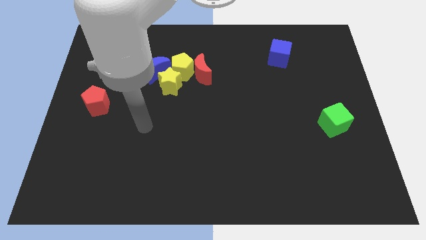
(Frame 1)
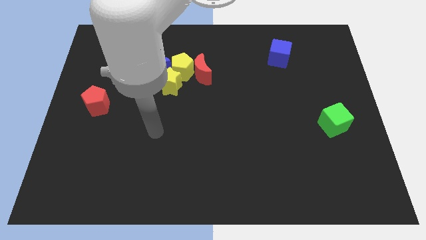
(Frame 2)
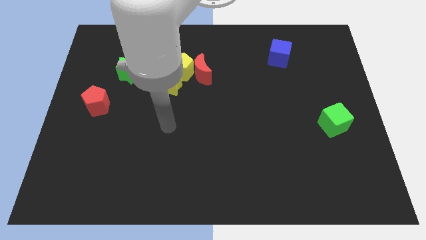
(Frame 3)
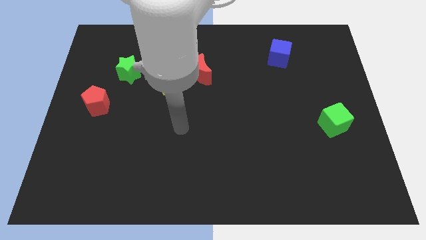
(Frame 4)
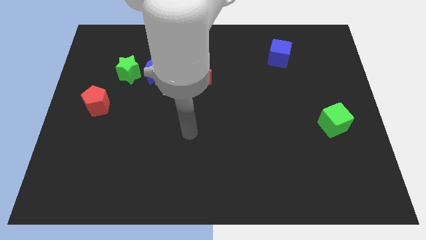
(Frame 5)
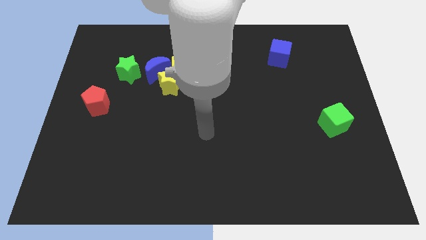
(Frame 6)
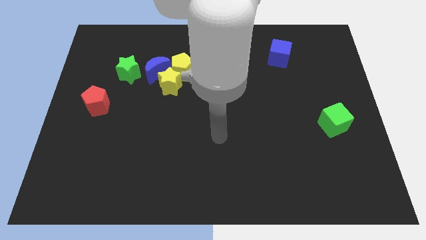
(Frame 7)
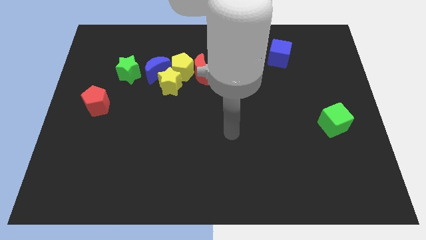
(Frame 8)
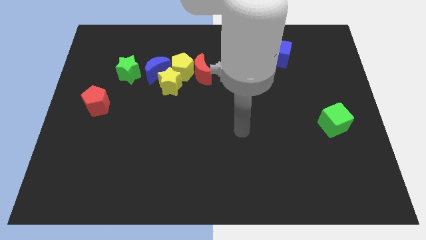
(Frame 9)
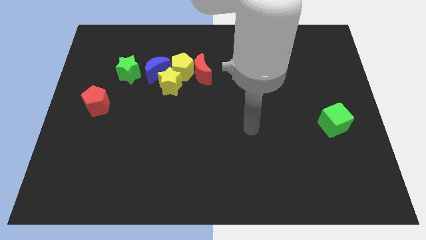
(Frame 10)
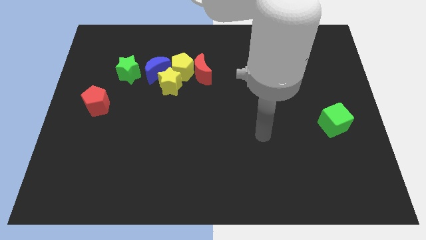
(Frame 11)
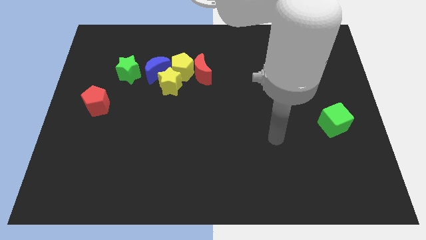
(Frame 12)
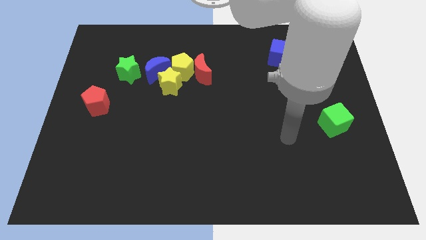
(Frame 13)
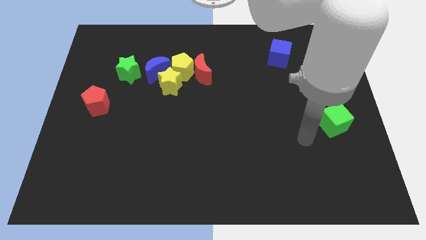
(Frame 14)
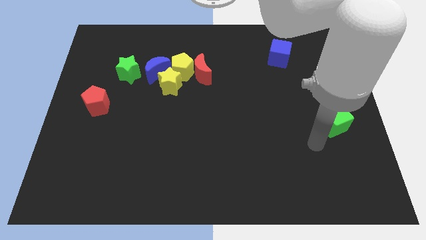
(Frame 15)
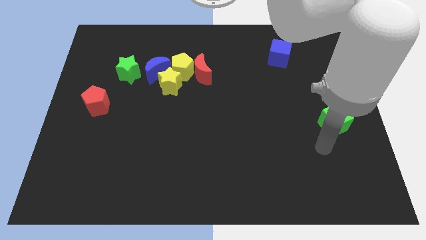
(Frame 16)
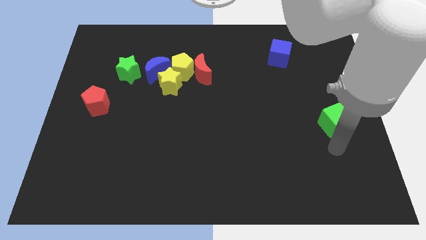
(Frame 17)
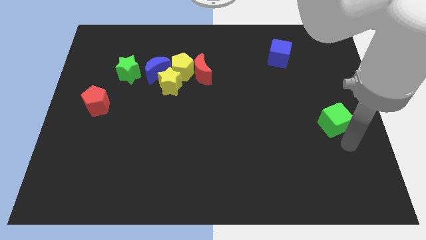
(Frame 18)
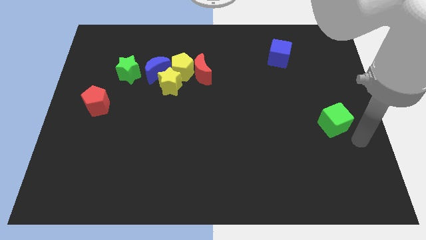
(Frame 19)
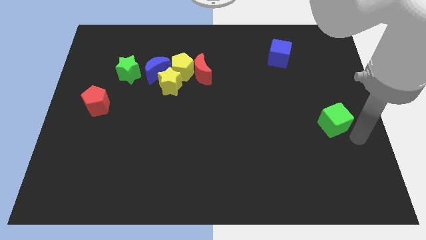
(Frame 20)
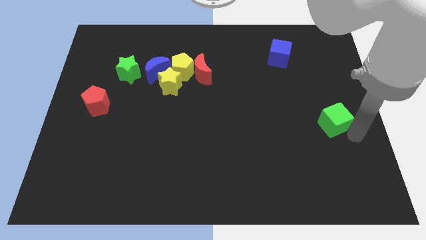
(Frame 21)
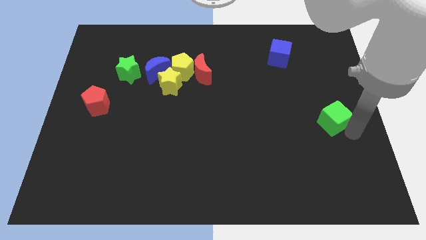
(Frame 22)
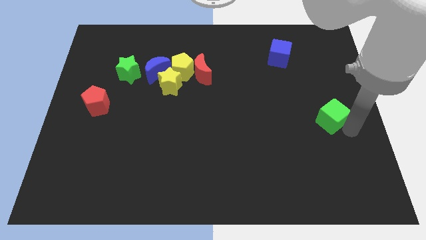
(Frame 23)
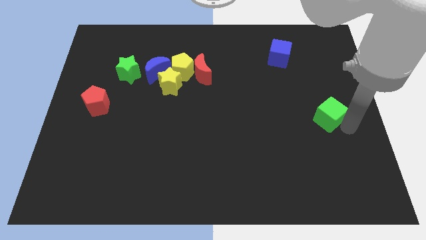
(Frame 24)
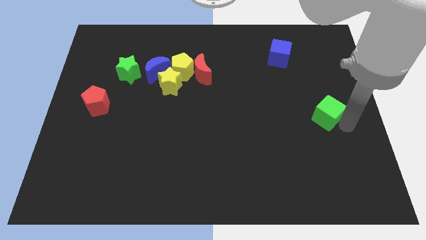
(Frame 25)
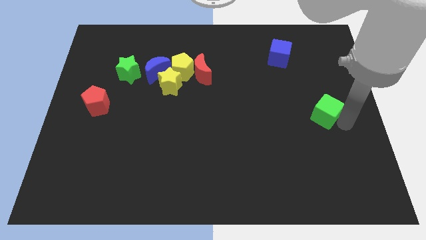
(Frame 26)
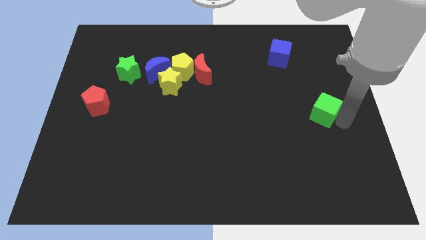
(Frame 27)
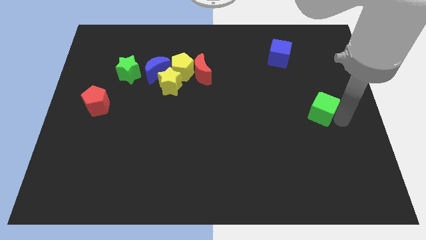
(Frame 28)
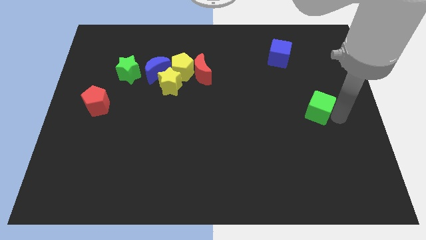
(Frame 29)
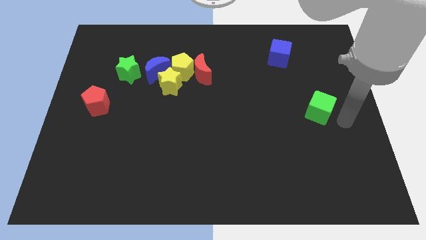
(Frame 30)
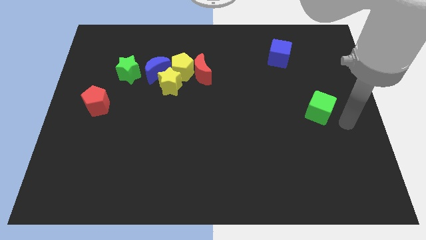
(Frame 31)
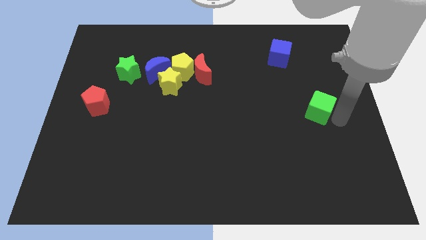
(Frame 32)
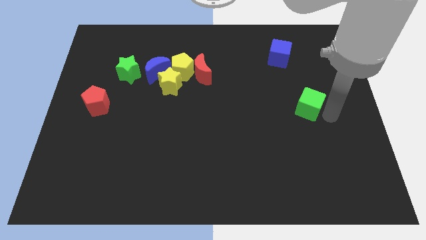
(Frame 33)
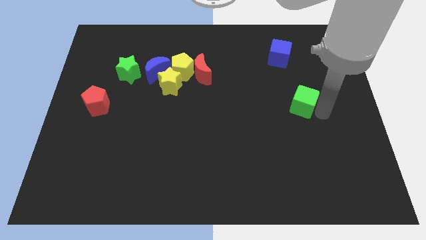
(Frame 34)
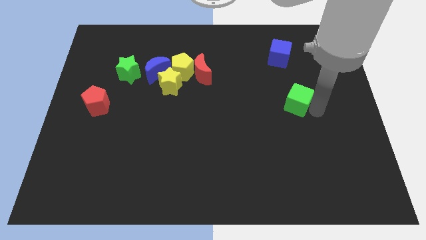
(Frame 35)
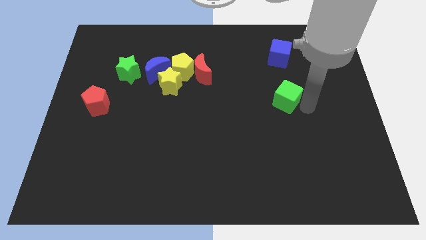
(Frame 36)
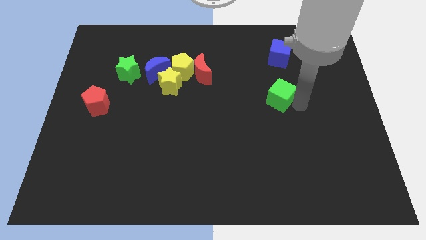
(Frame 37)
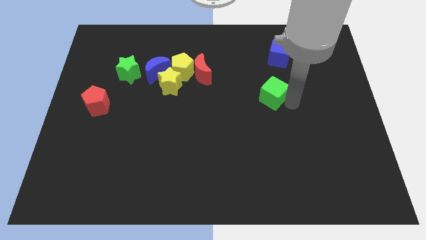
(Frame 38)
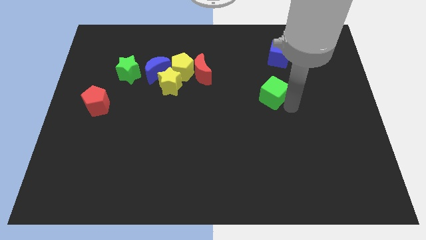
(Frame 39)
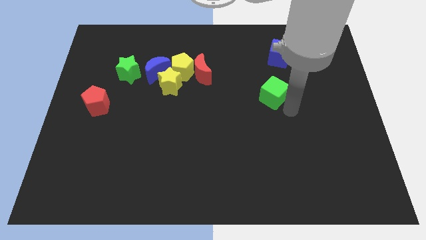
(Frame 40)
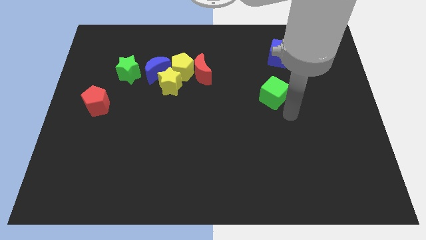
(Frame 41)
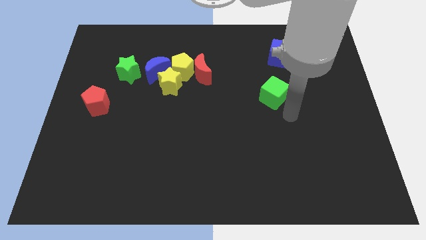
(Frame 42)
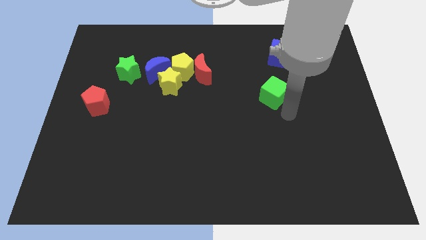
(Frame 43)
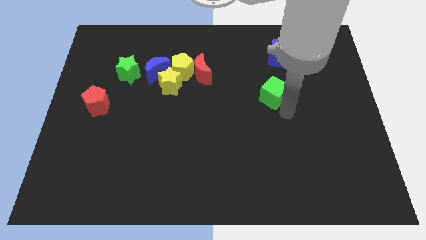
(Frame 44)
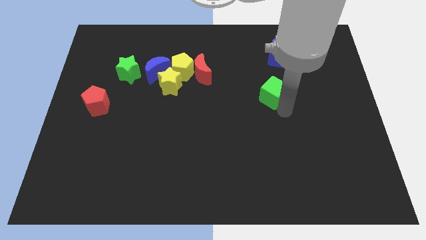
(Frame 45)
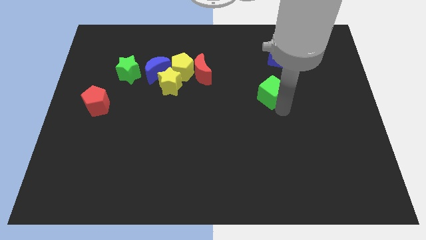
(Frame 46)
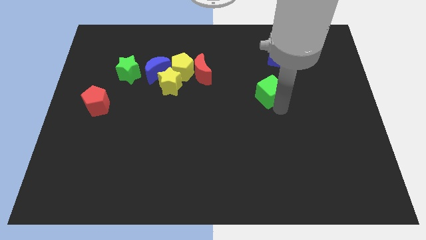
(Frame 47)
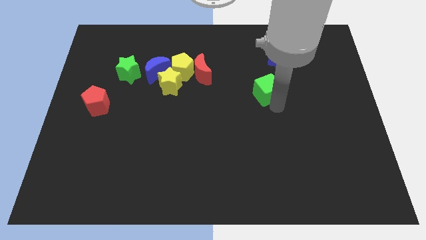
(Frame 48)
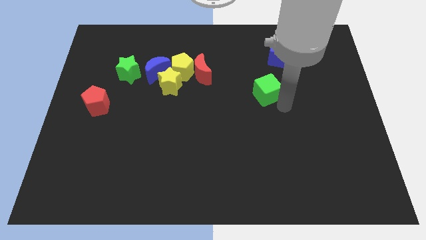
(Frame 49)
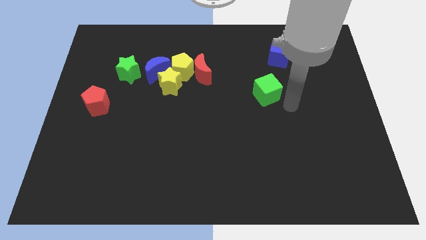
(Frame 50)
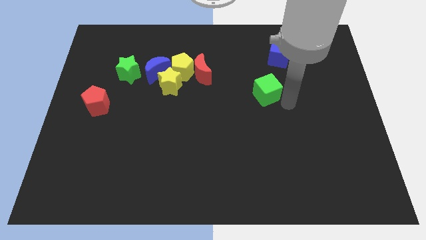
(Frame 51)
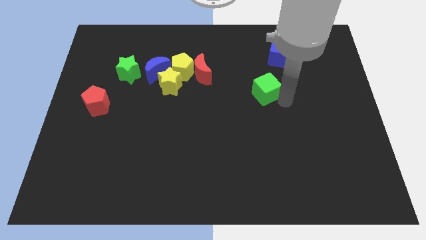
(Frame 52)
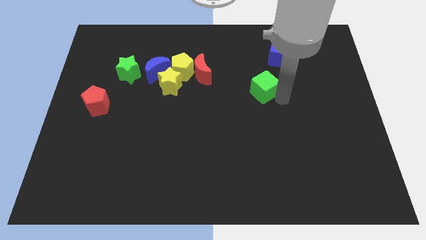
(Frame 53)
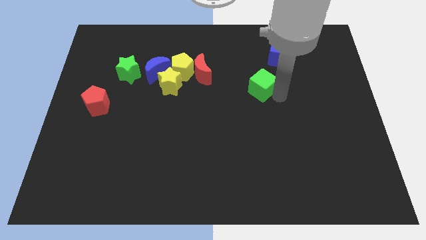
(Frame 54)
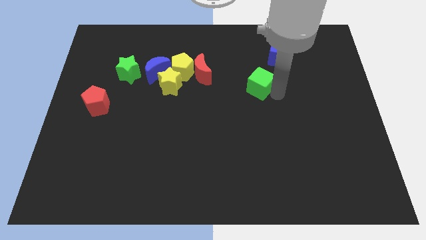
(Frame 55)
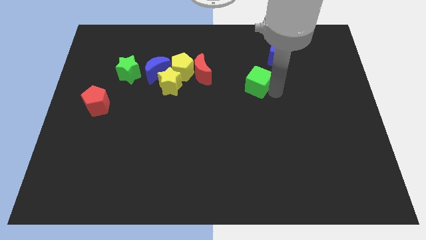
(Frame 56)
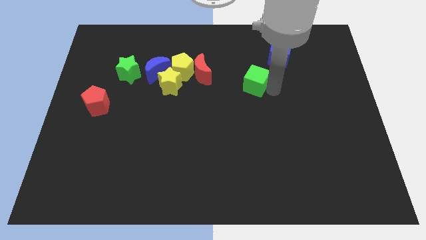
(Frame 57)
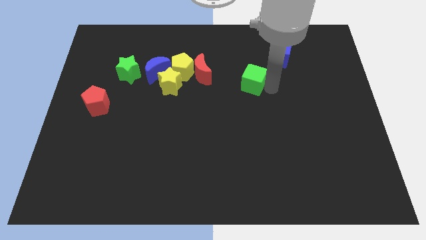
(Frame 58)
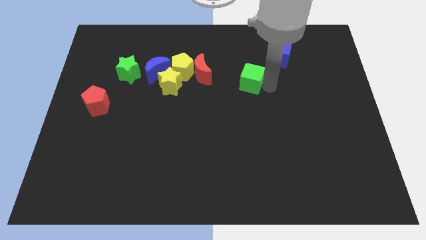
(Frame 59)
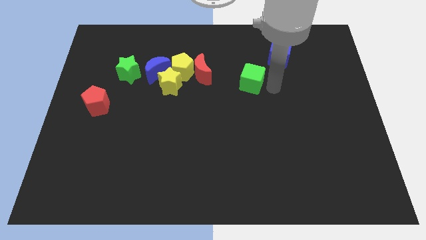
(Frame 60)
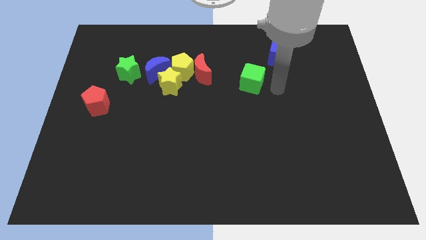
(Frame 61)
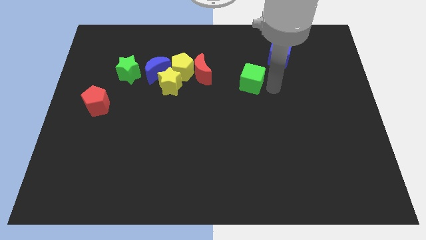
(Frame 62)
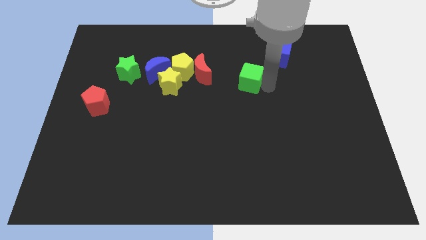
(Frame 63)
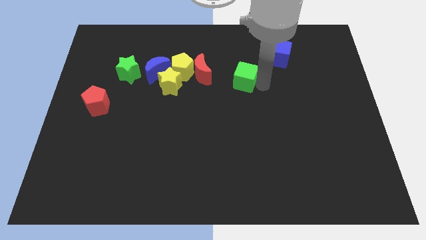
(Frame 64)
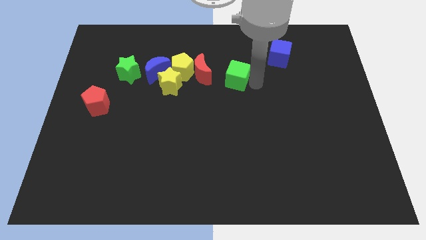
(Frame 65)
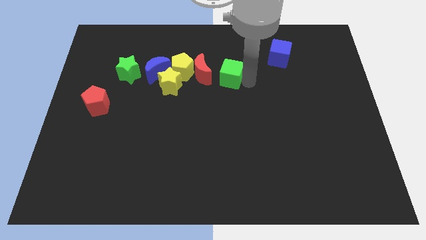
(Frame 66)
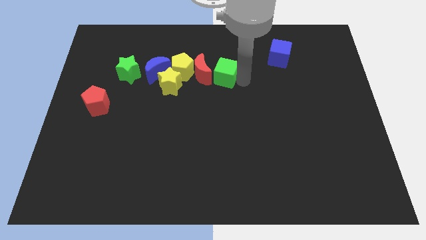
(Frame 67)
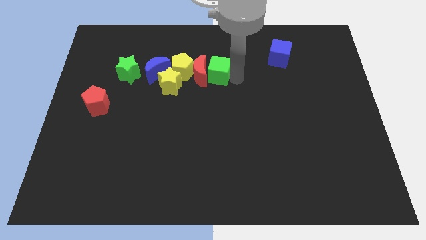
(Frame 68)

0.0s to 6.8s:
put the green cube right of the blue moon
